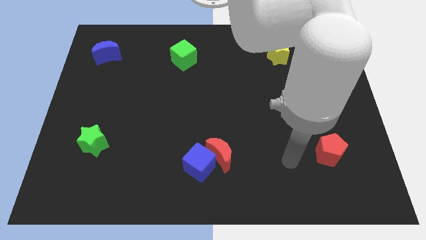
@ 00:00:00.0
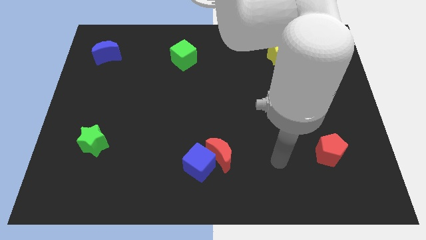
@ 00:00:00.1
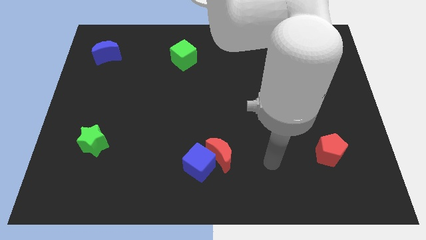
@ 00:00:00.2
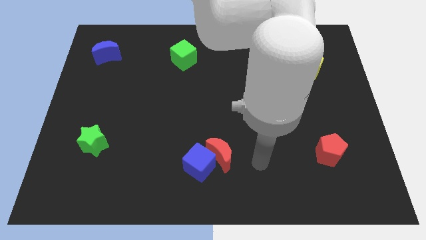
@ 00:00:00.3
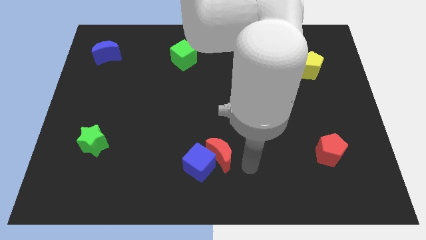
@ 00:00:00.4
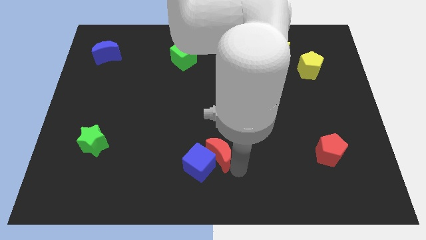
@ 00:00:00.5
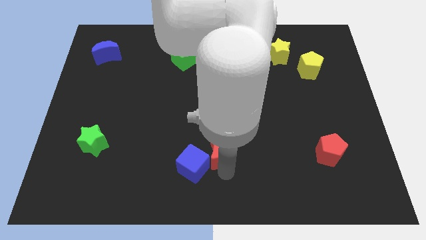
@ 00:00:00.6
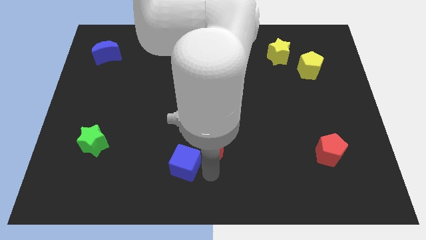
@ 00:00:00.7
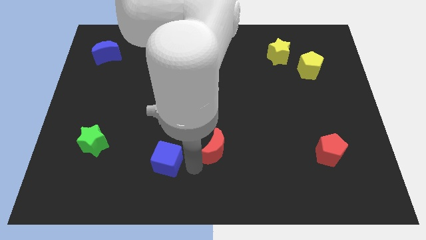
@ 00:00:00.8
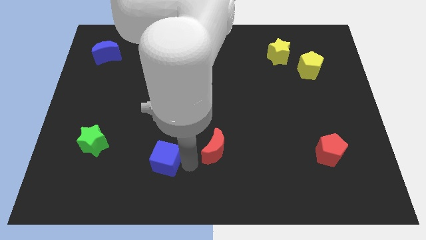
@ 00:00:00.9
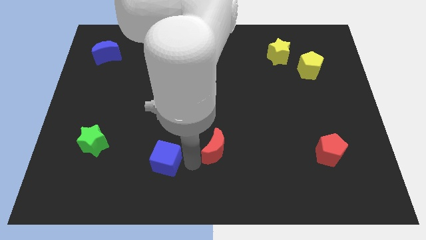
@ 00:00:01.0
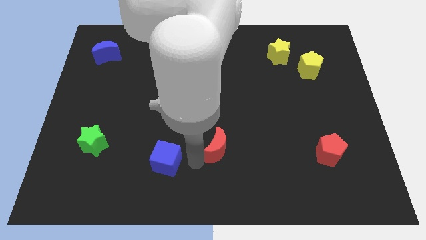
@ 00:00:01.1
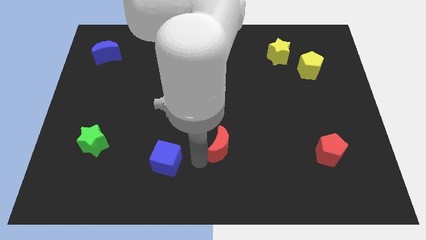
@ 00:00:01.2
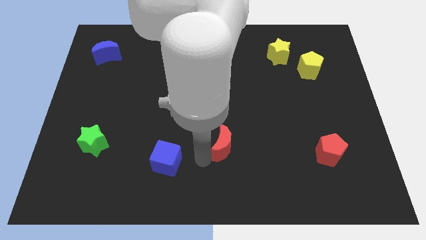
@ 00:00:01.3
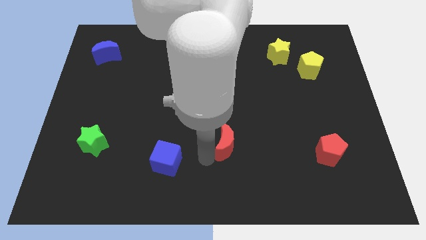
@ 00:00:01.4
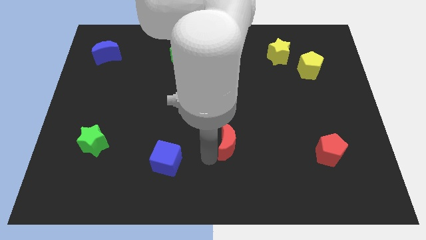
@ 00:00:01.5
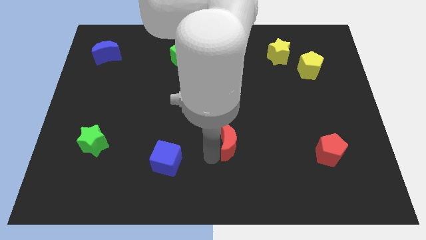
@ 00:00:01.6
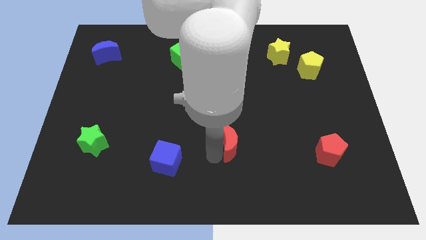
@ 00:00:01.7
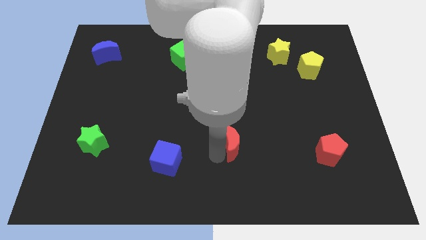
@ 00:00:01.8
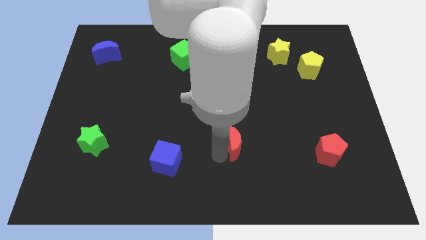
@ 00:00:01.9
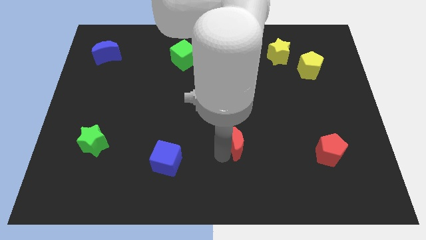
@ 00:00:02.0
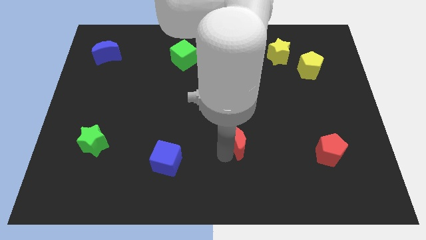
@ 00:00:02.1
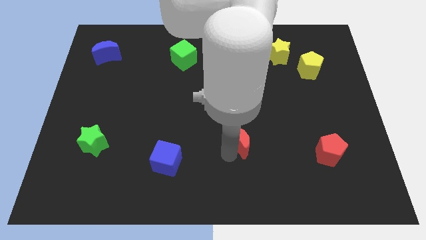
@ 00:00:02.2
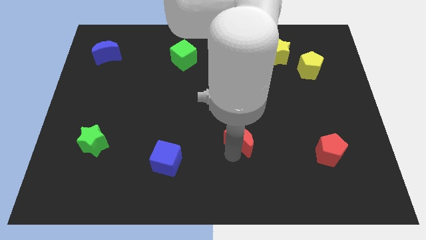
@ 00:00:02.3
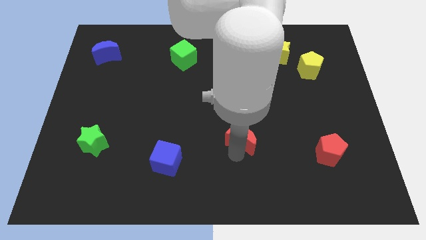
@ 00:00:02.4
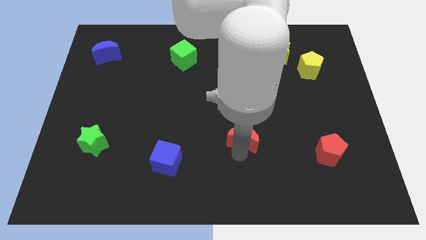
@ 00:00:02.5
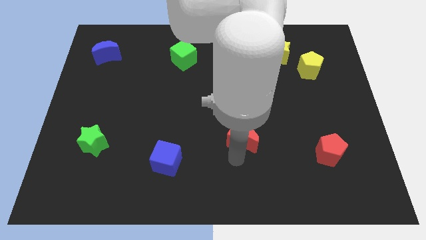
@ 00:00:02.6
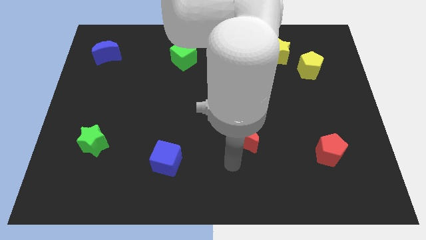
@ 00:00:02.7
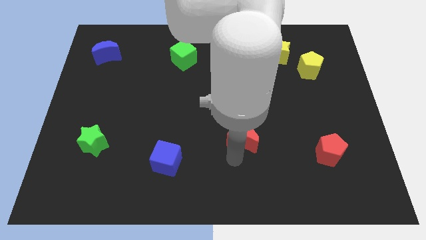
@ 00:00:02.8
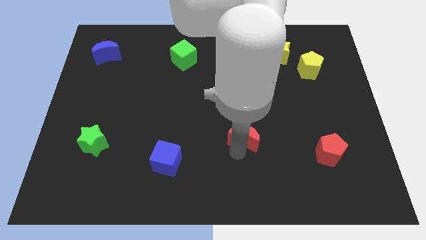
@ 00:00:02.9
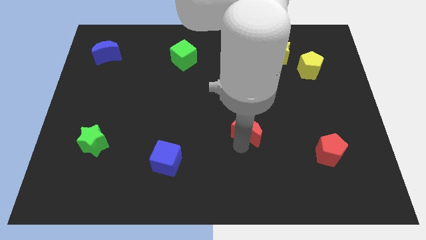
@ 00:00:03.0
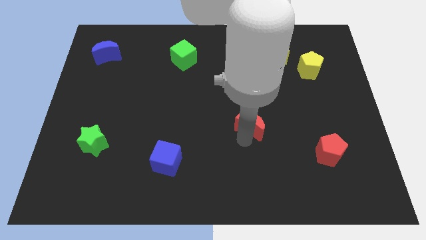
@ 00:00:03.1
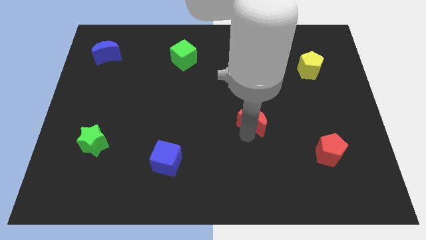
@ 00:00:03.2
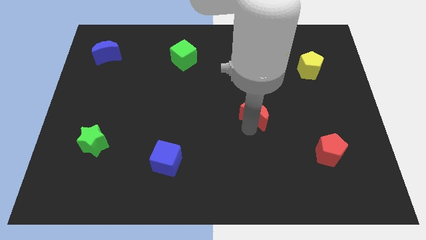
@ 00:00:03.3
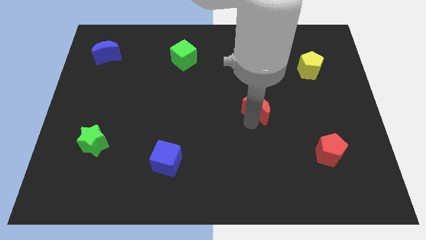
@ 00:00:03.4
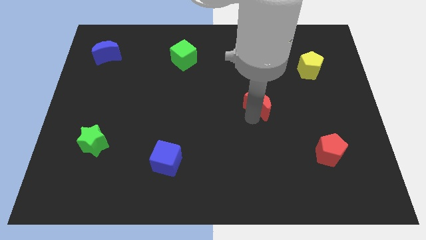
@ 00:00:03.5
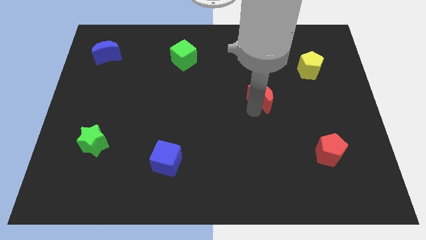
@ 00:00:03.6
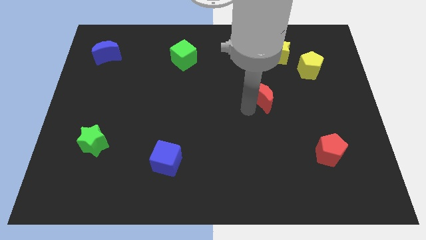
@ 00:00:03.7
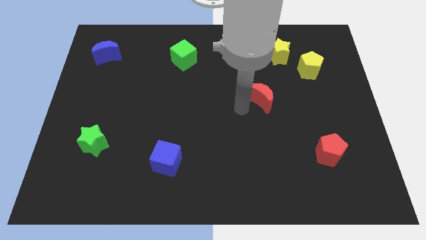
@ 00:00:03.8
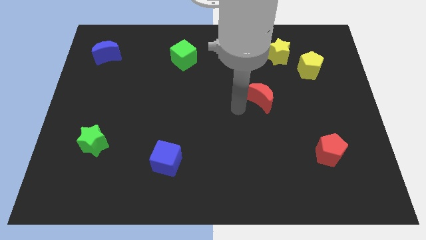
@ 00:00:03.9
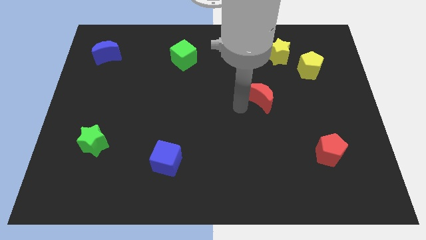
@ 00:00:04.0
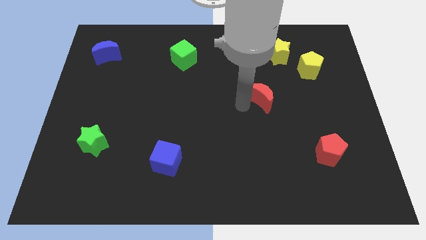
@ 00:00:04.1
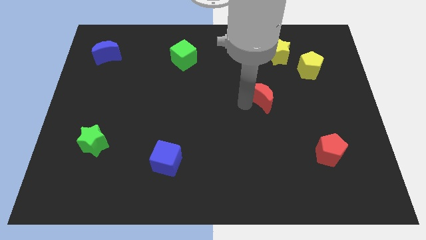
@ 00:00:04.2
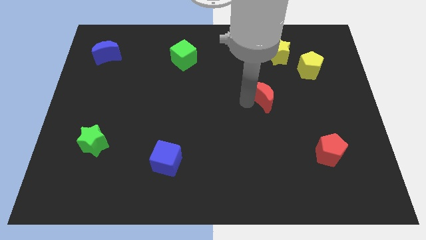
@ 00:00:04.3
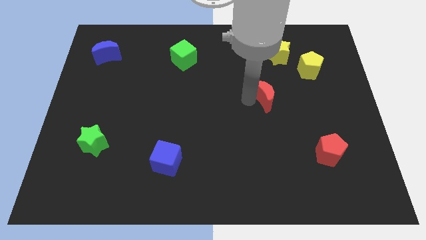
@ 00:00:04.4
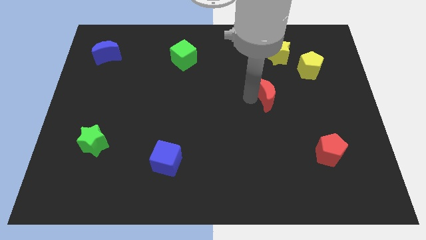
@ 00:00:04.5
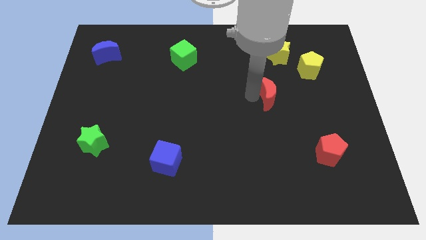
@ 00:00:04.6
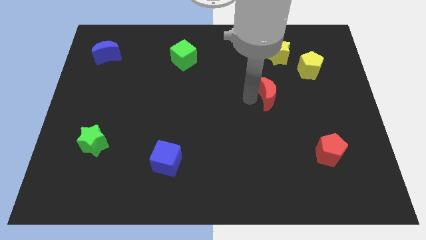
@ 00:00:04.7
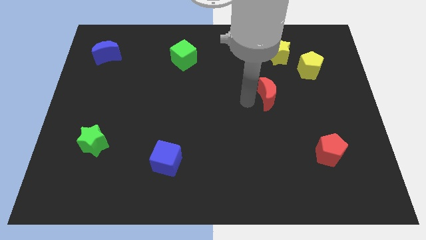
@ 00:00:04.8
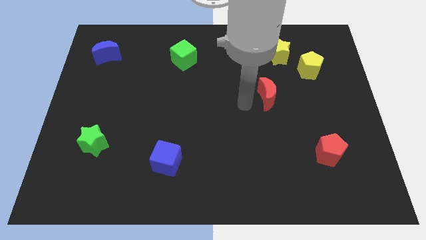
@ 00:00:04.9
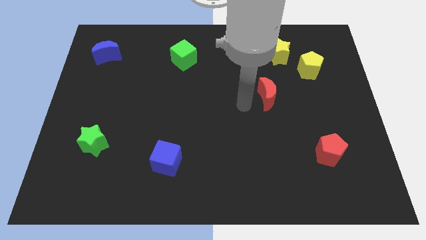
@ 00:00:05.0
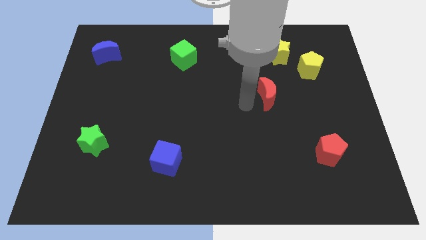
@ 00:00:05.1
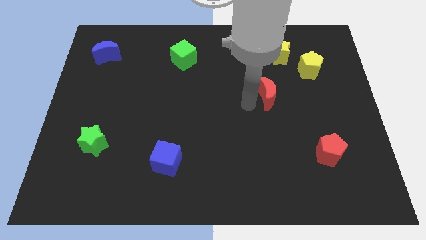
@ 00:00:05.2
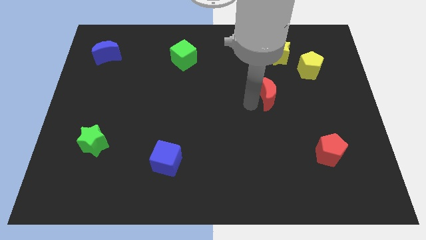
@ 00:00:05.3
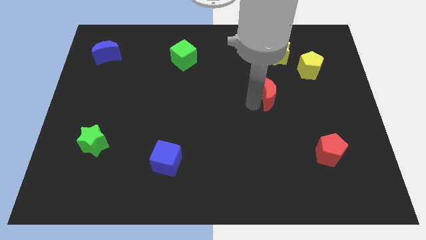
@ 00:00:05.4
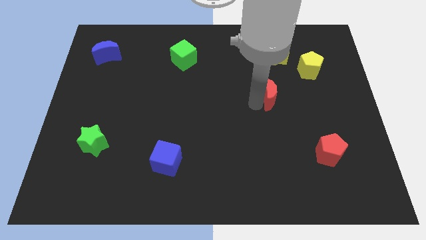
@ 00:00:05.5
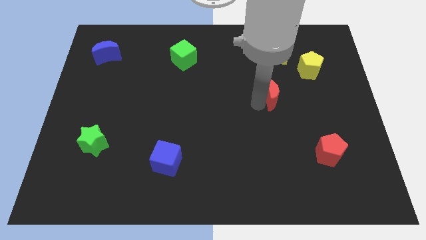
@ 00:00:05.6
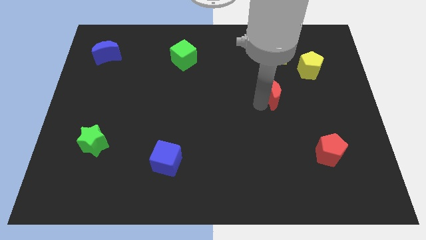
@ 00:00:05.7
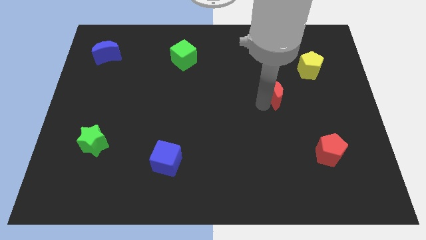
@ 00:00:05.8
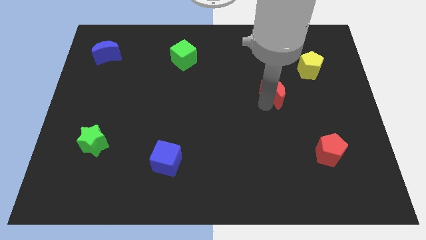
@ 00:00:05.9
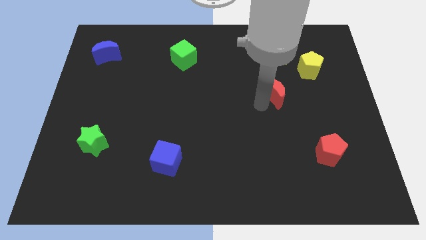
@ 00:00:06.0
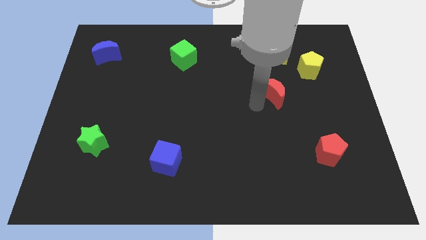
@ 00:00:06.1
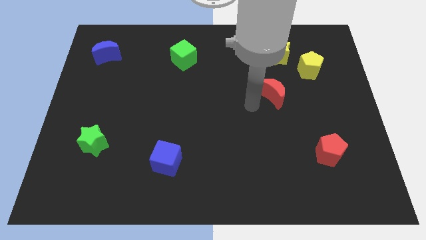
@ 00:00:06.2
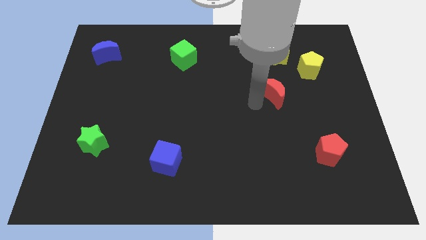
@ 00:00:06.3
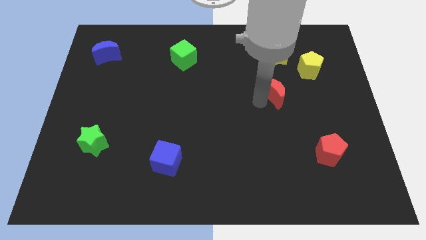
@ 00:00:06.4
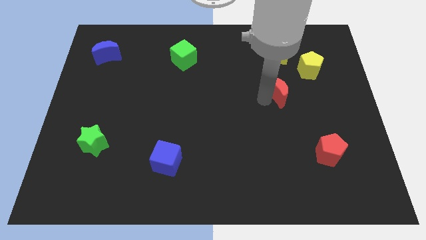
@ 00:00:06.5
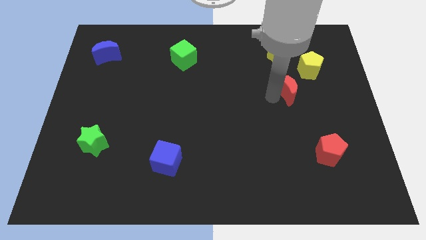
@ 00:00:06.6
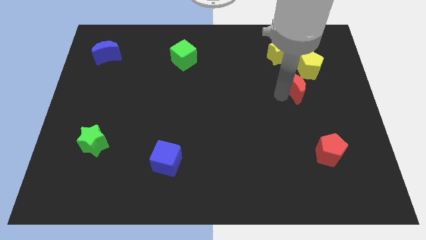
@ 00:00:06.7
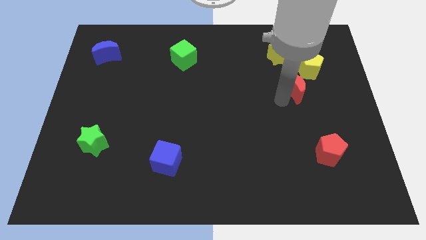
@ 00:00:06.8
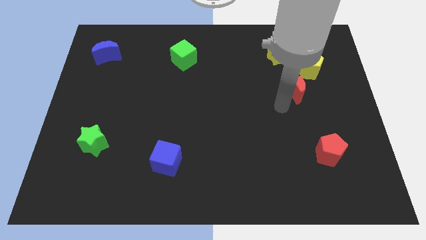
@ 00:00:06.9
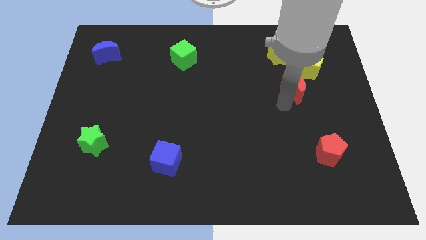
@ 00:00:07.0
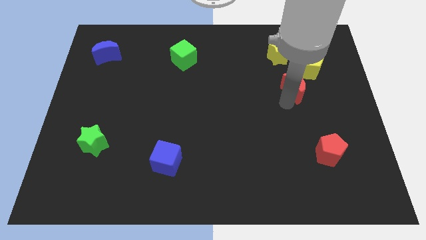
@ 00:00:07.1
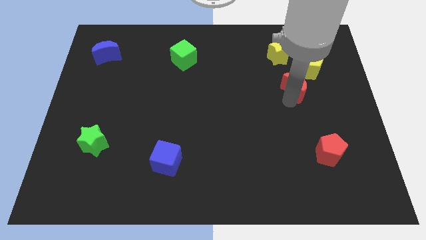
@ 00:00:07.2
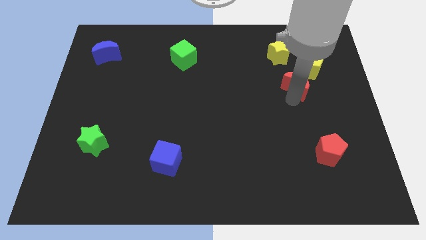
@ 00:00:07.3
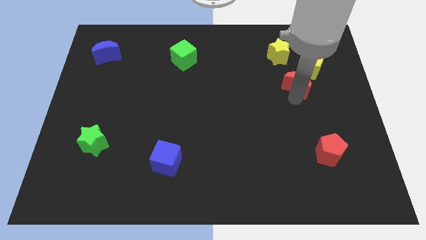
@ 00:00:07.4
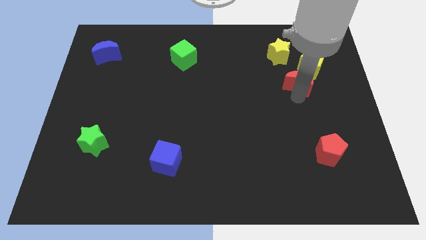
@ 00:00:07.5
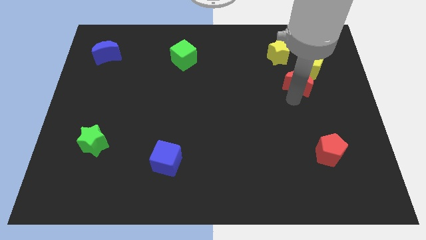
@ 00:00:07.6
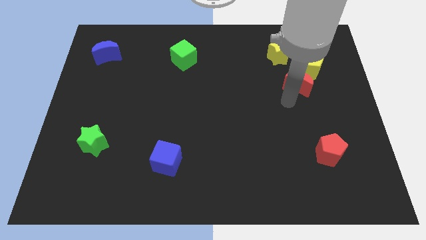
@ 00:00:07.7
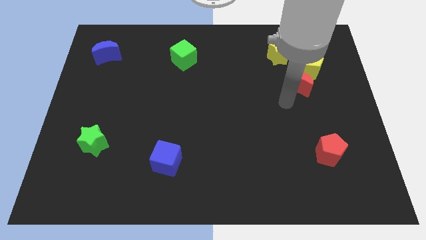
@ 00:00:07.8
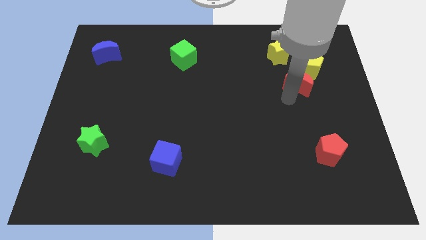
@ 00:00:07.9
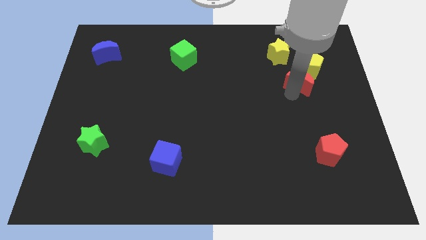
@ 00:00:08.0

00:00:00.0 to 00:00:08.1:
put the red moon to the yellow pentagon
